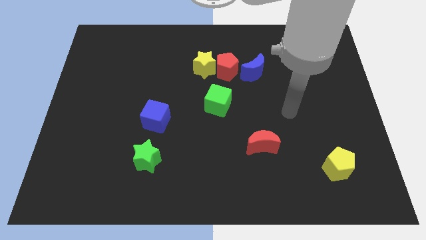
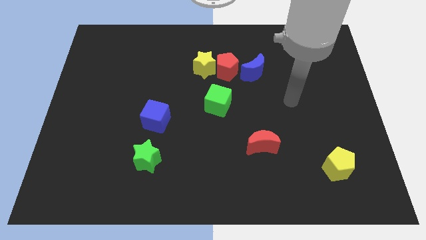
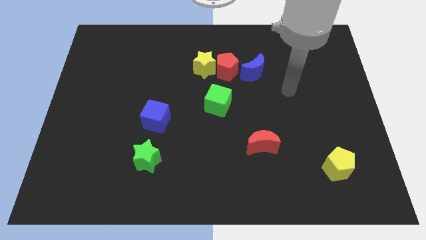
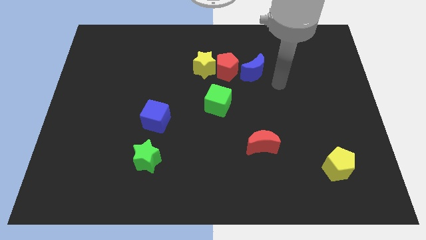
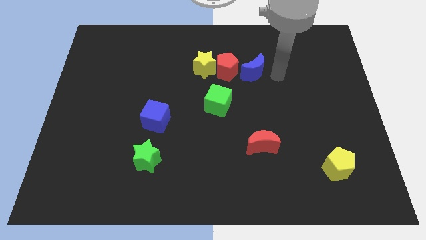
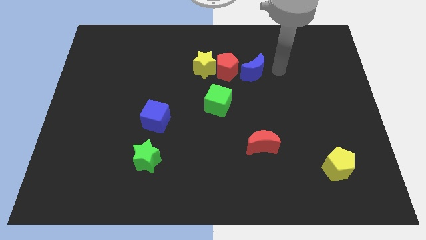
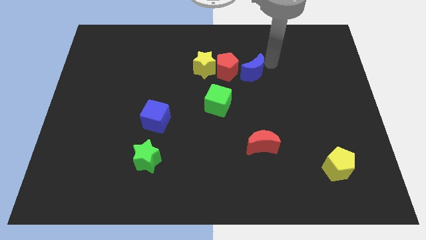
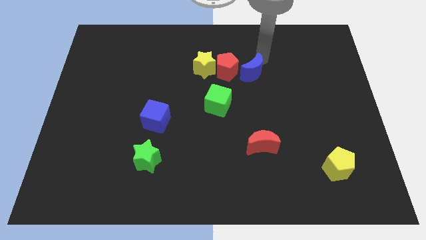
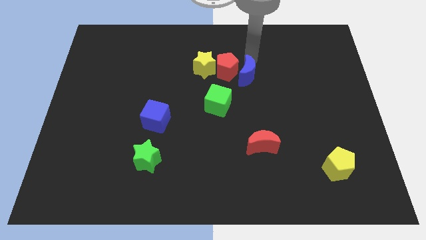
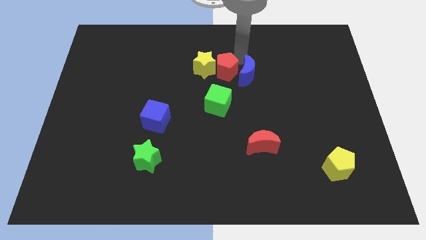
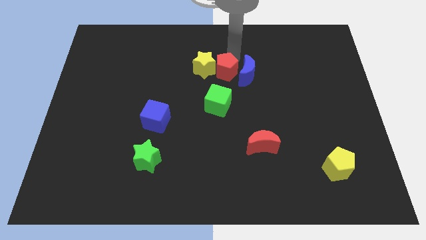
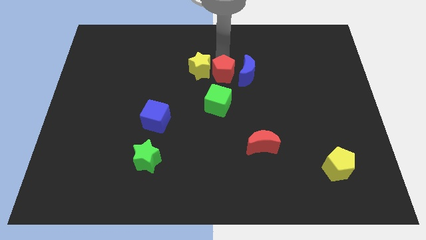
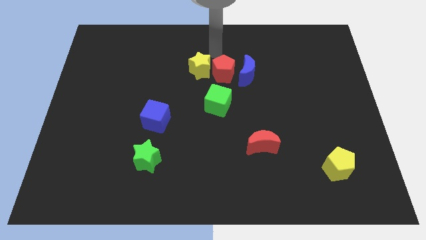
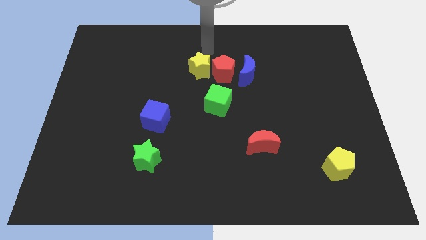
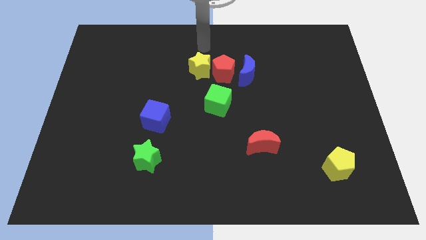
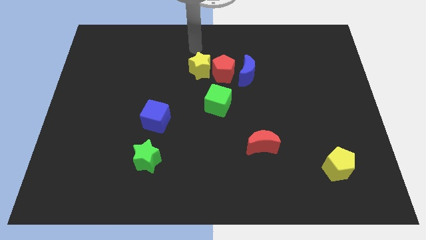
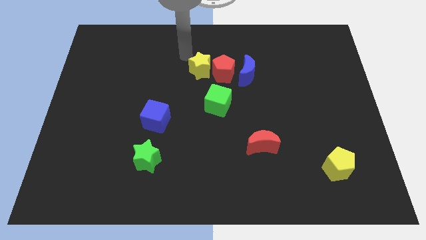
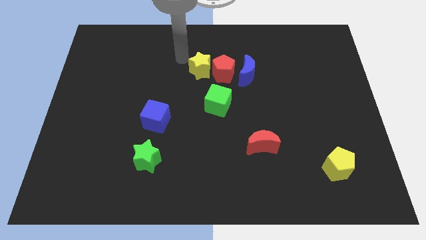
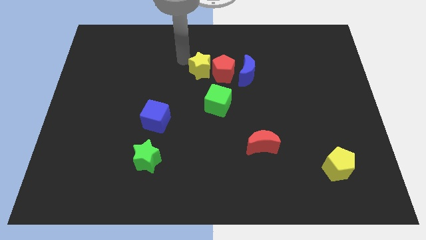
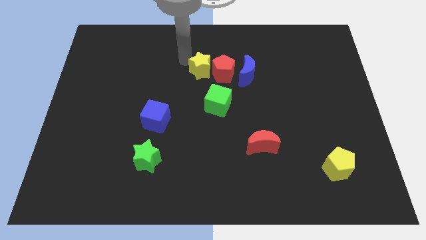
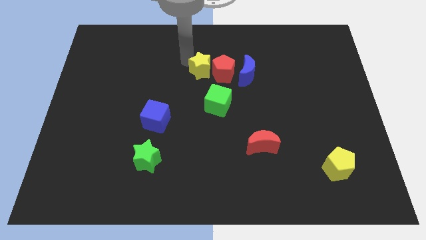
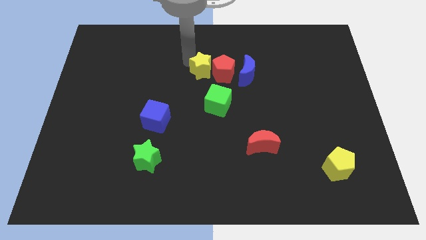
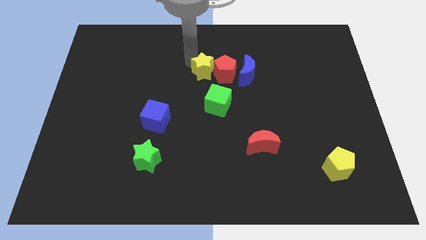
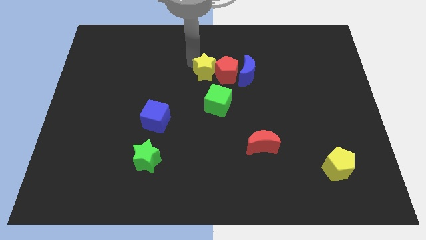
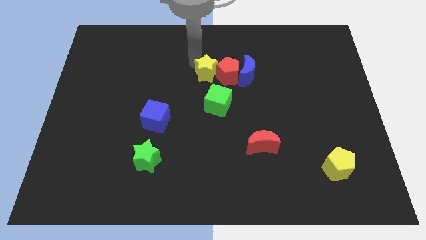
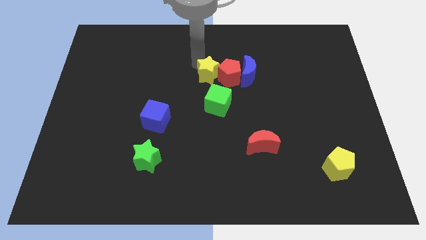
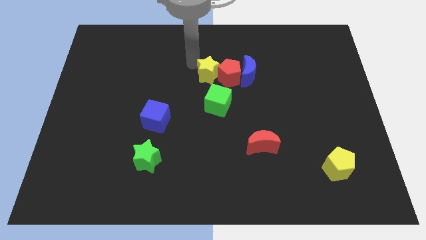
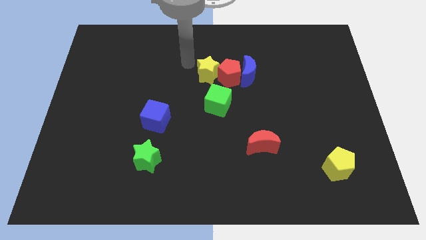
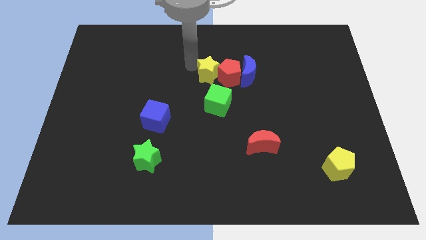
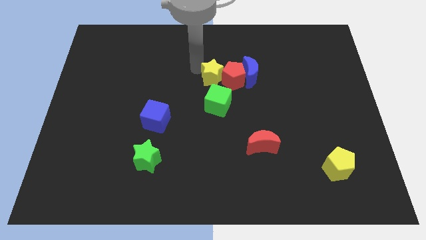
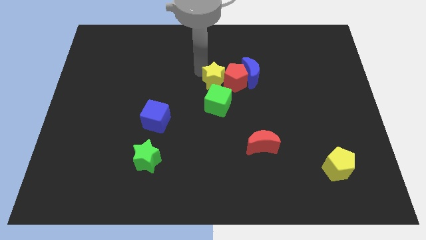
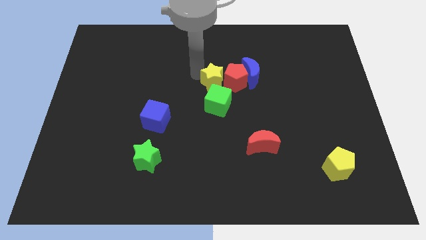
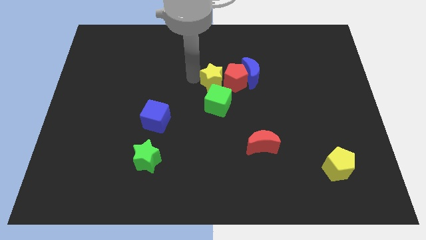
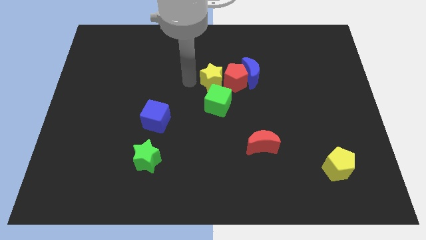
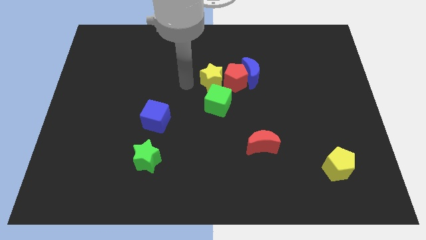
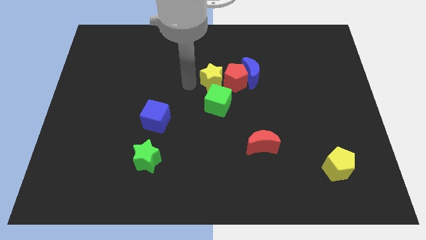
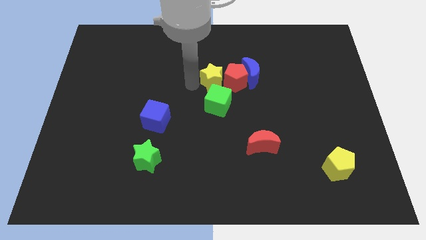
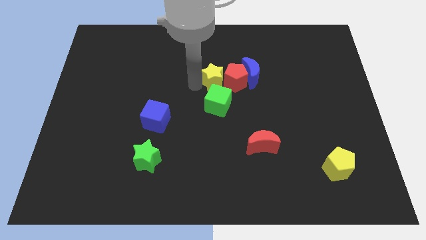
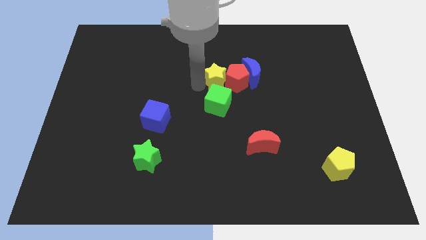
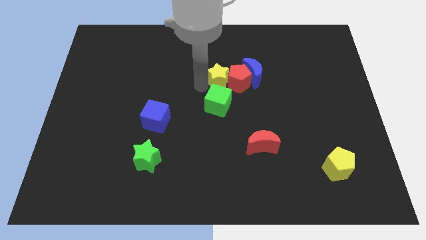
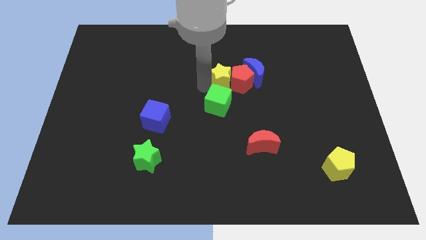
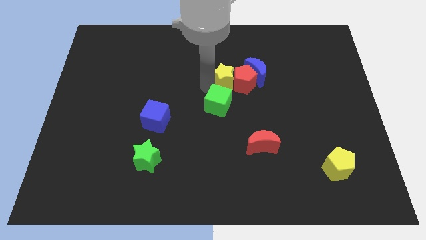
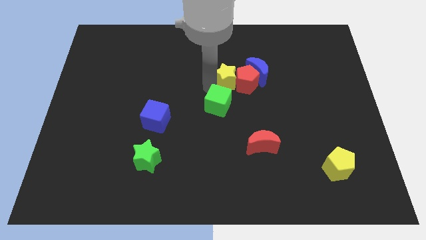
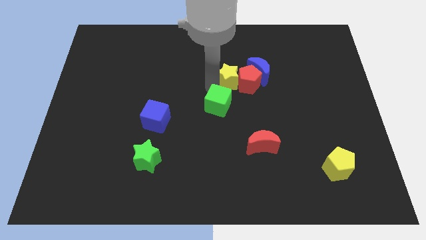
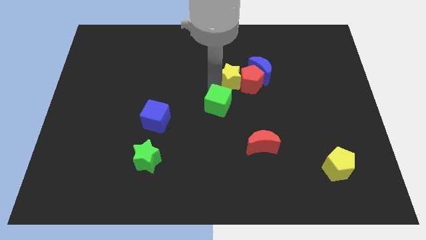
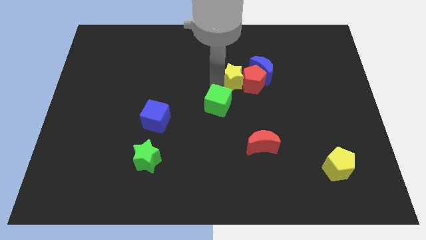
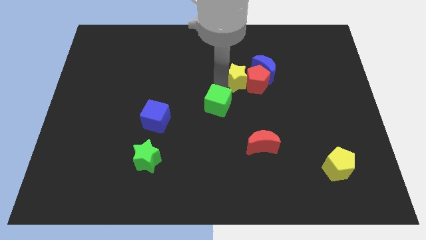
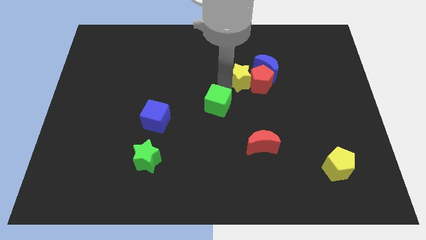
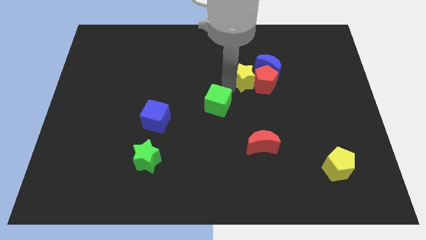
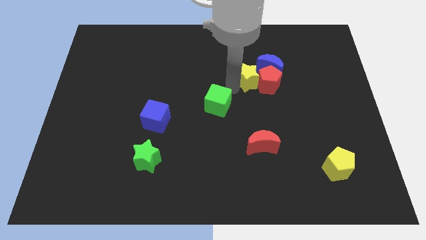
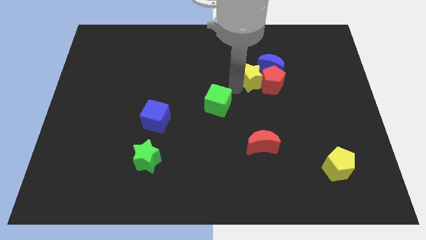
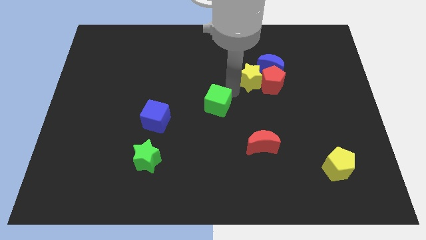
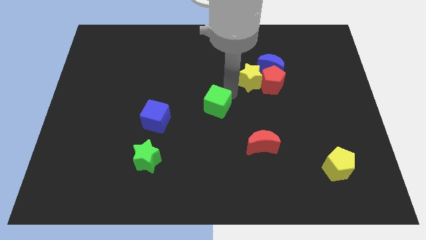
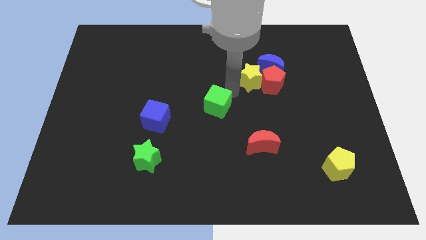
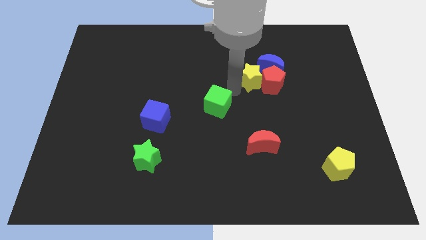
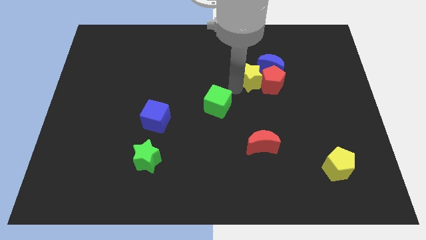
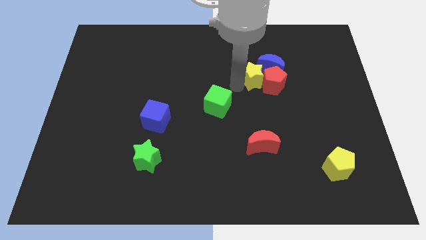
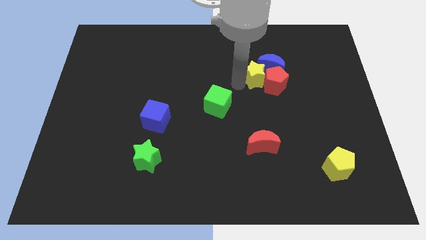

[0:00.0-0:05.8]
move the yellow star next to the blue moon

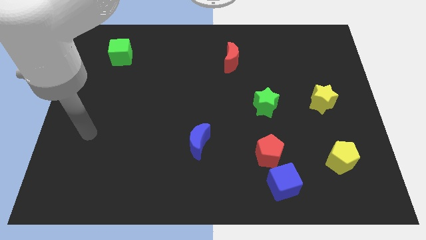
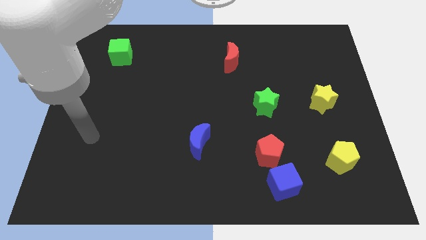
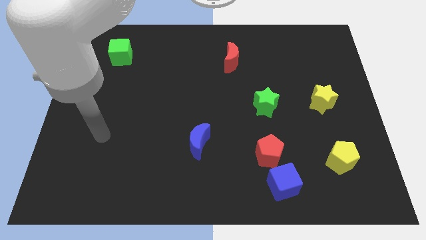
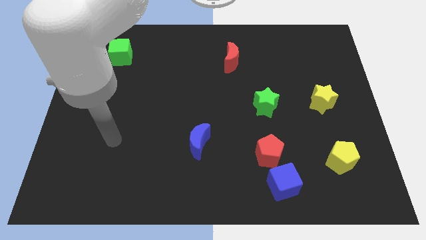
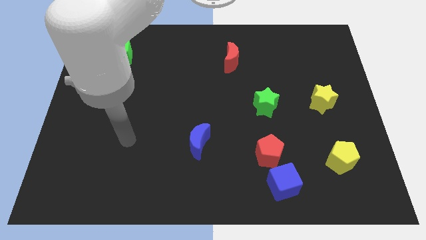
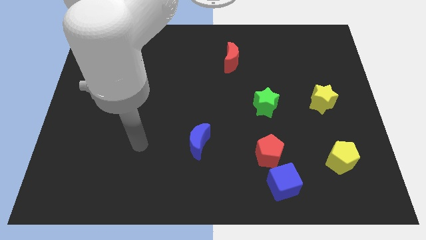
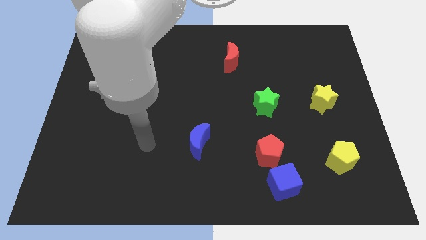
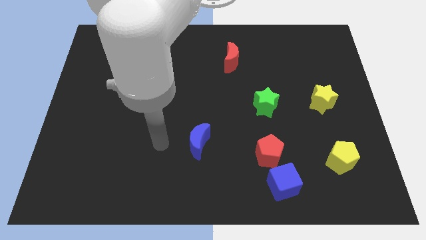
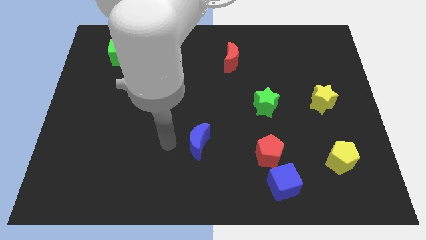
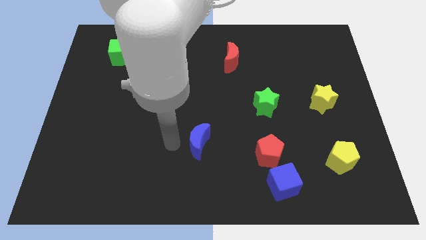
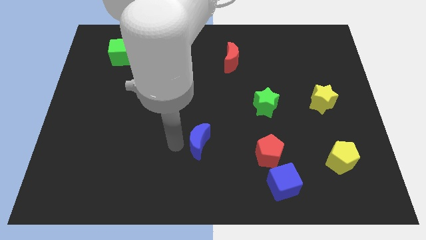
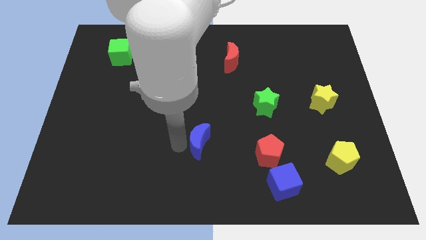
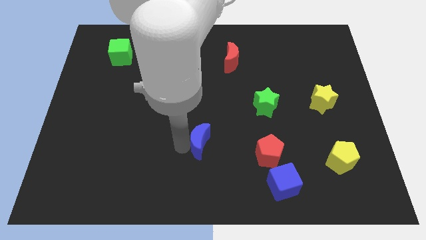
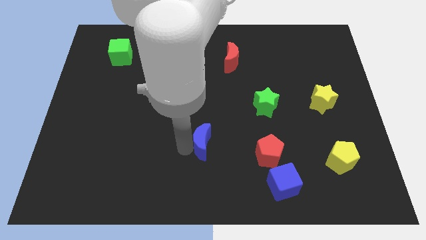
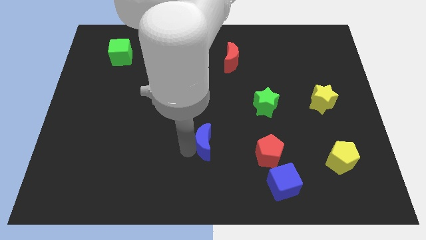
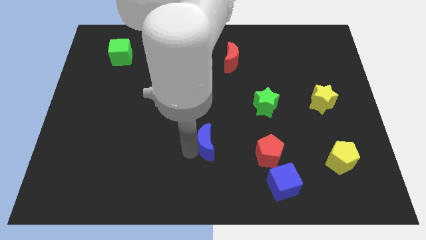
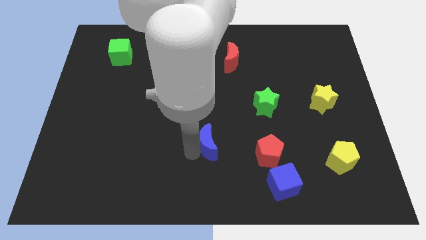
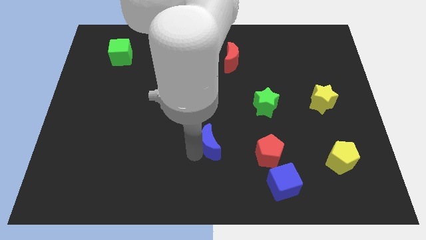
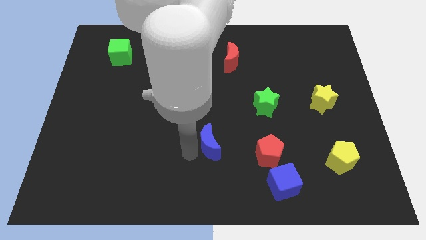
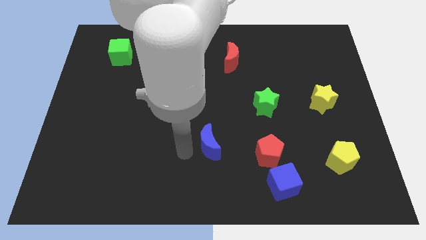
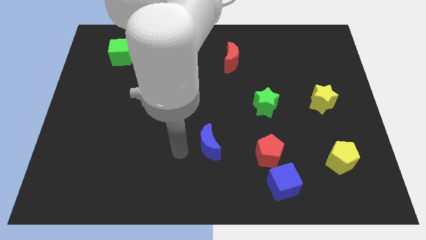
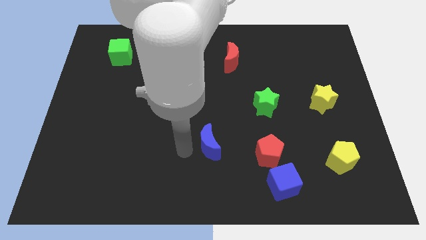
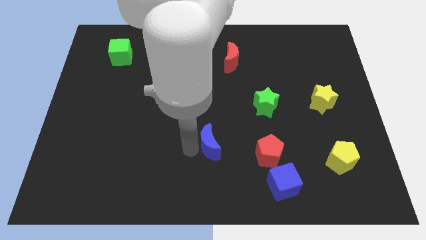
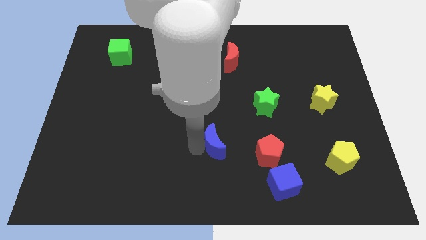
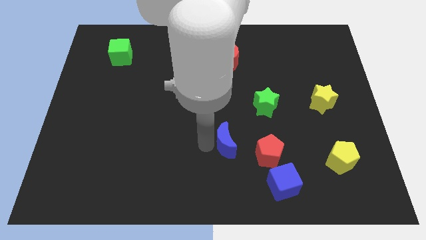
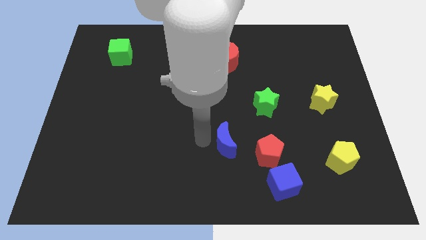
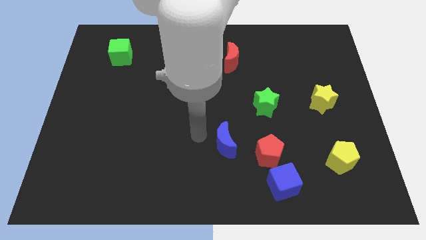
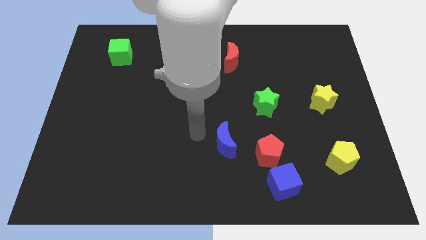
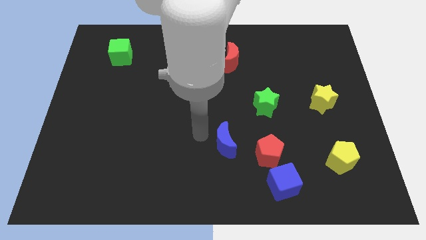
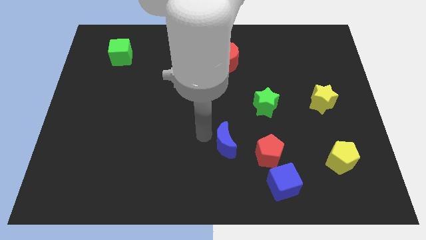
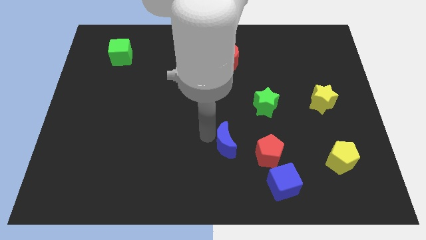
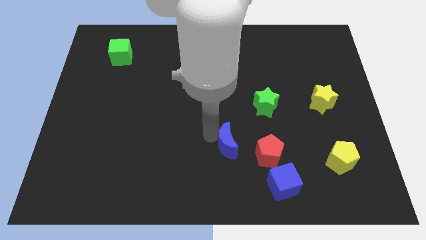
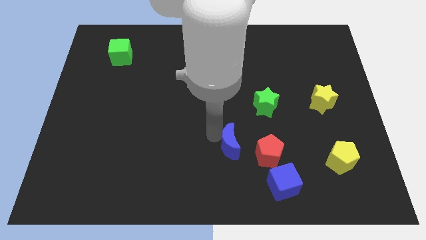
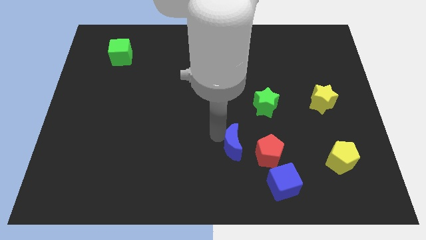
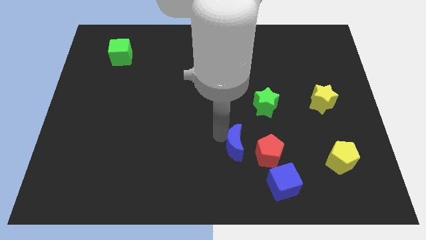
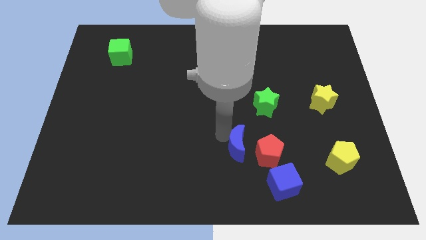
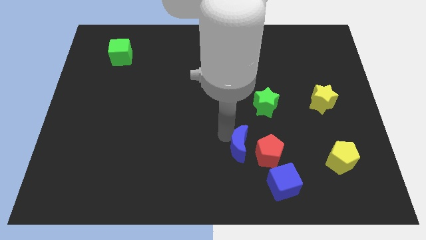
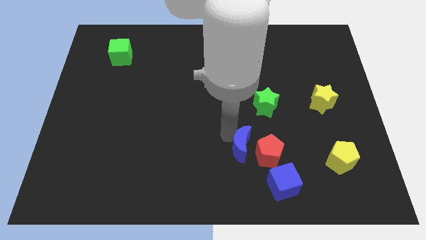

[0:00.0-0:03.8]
move the blue moon next to the red pentagon
